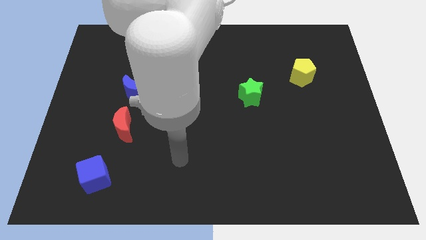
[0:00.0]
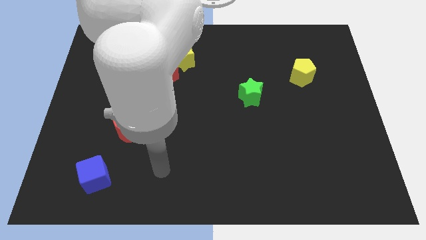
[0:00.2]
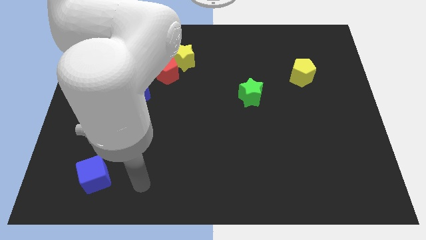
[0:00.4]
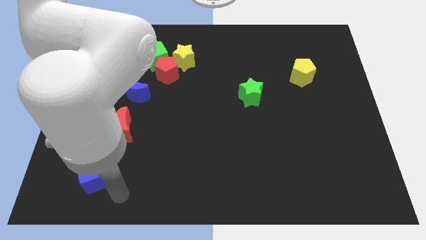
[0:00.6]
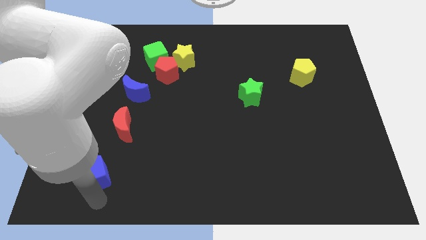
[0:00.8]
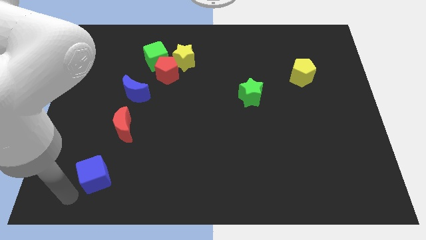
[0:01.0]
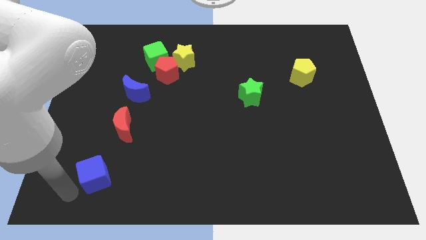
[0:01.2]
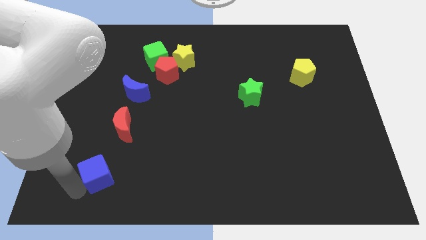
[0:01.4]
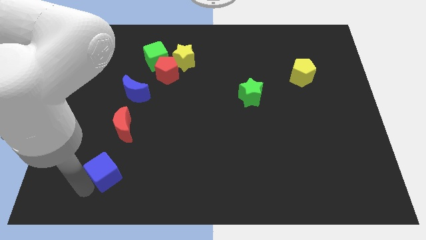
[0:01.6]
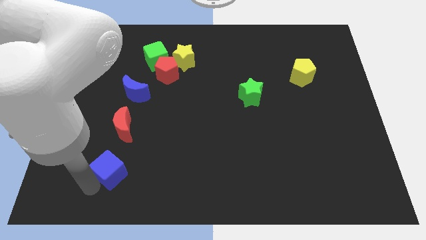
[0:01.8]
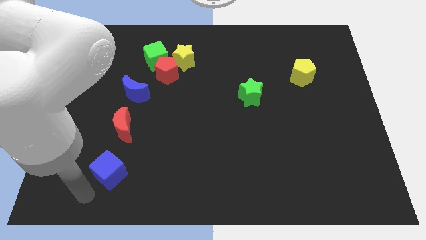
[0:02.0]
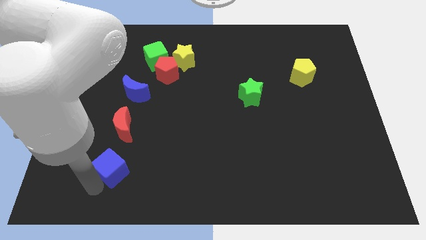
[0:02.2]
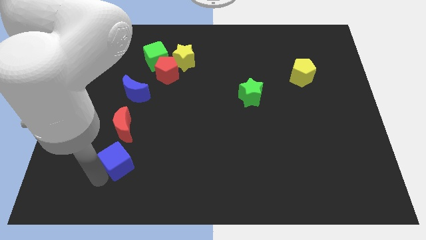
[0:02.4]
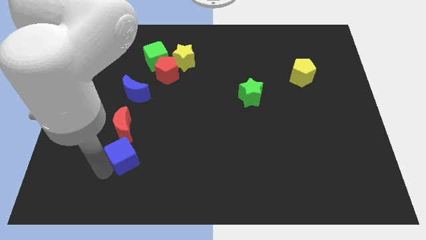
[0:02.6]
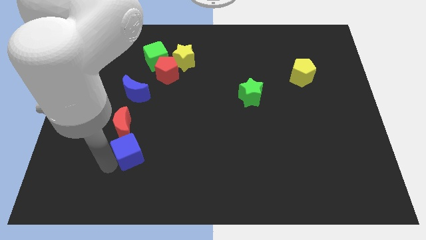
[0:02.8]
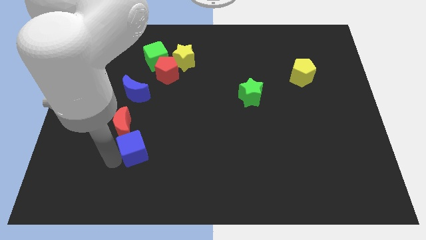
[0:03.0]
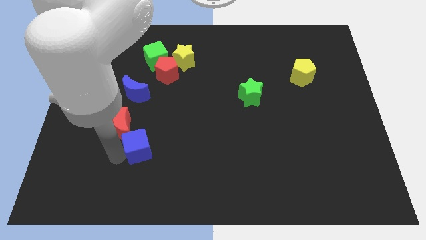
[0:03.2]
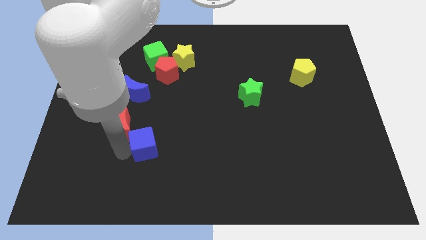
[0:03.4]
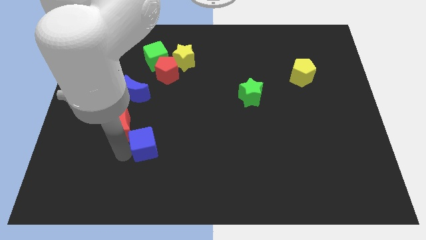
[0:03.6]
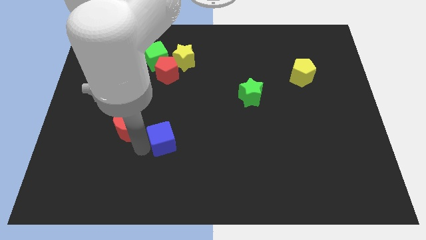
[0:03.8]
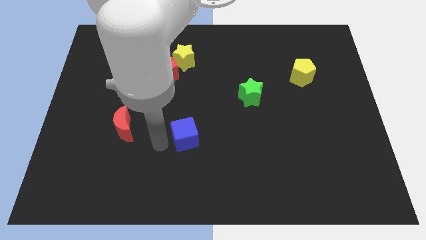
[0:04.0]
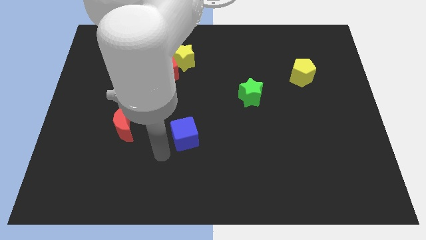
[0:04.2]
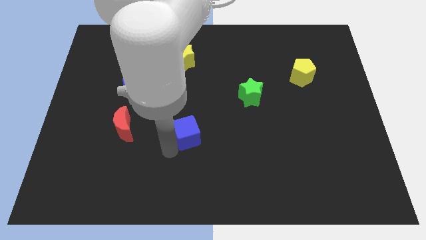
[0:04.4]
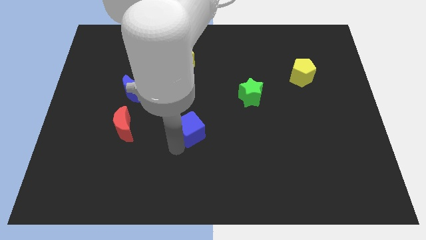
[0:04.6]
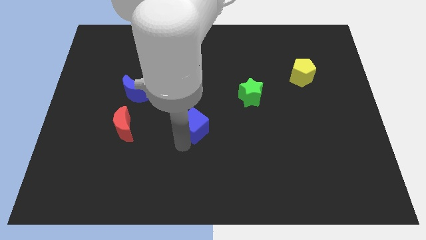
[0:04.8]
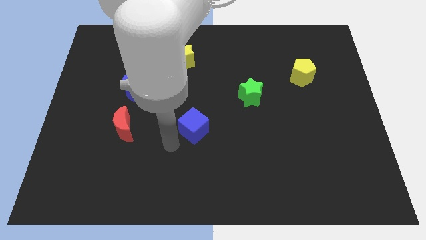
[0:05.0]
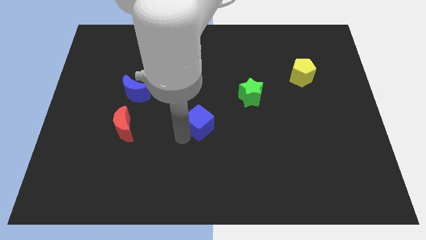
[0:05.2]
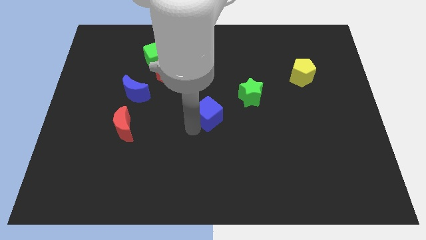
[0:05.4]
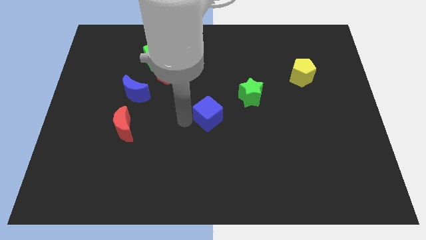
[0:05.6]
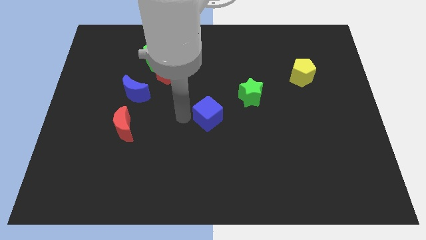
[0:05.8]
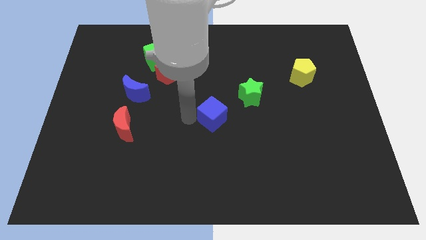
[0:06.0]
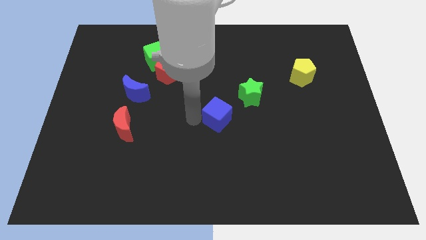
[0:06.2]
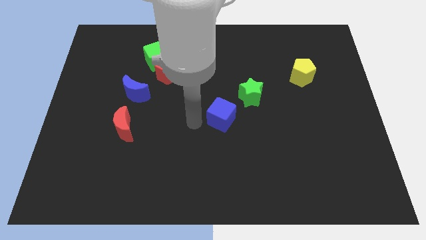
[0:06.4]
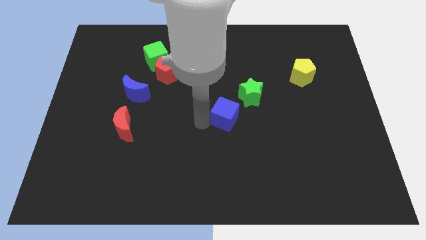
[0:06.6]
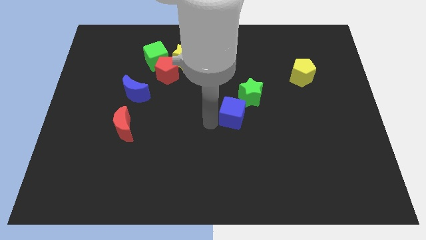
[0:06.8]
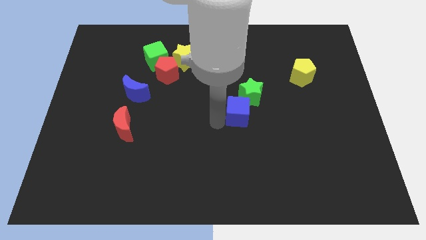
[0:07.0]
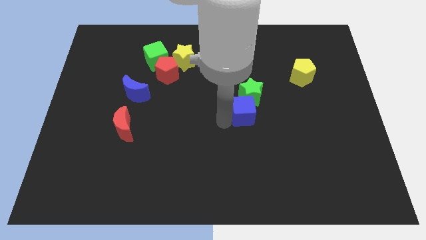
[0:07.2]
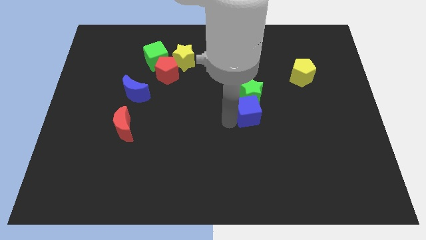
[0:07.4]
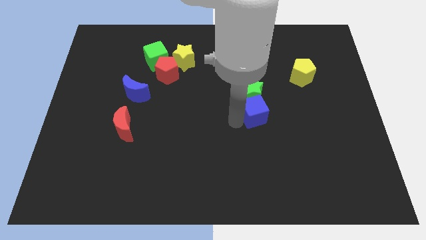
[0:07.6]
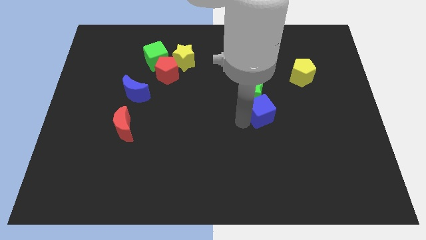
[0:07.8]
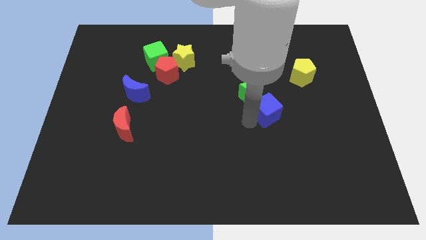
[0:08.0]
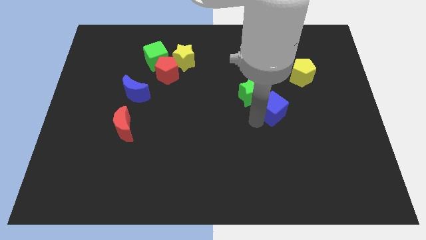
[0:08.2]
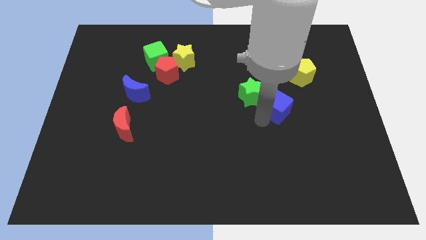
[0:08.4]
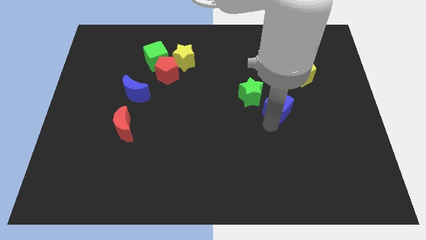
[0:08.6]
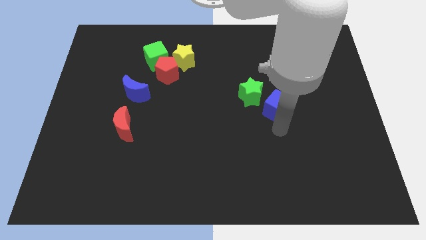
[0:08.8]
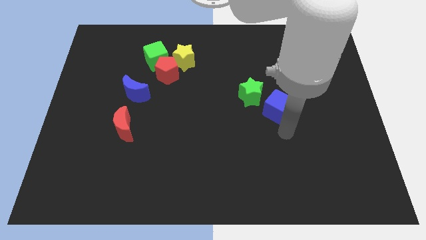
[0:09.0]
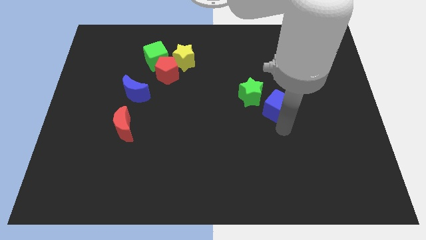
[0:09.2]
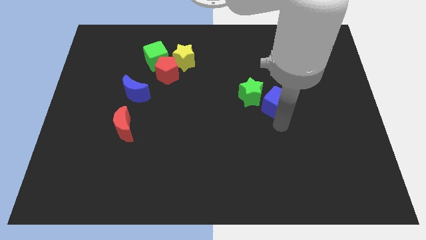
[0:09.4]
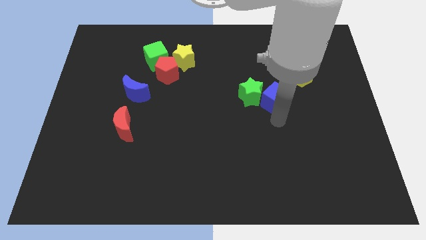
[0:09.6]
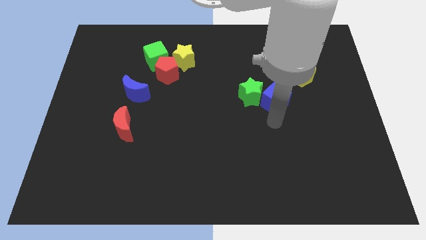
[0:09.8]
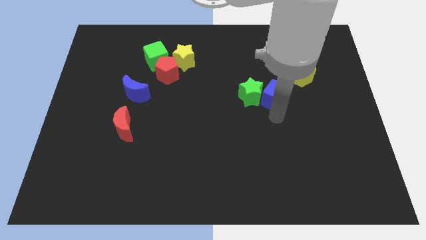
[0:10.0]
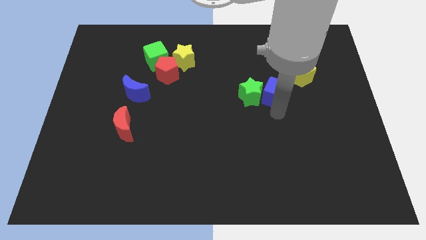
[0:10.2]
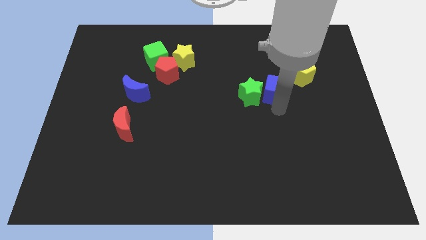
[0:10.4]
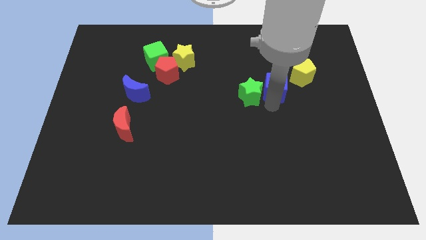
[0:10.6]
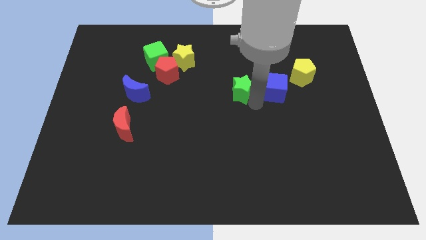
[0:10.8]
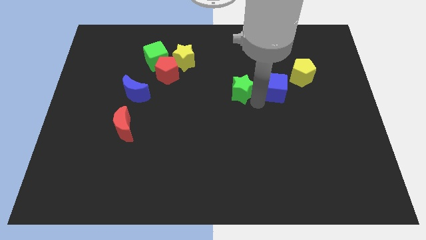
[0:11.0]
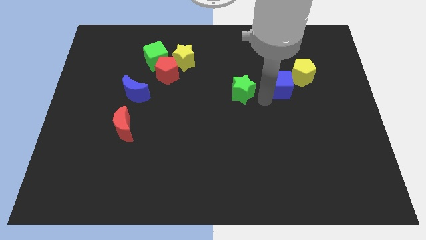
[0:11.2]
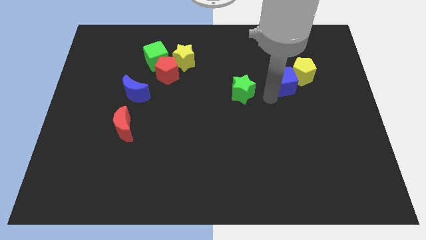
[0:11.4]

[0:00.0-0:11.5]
put the blue cube close to the yellow pentagon

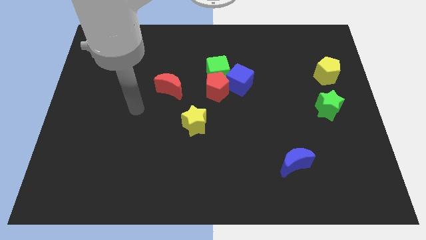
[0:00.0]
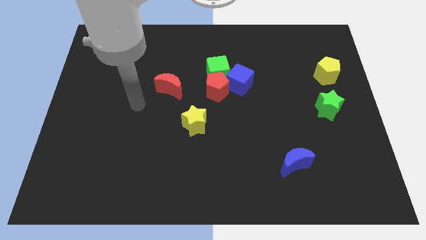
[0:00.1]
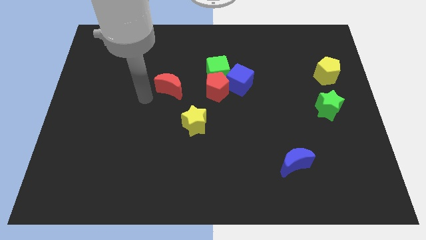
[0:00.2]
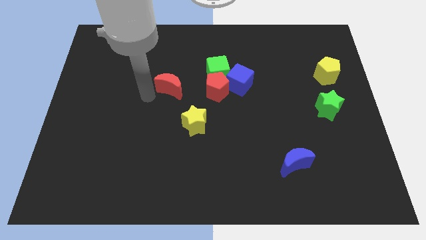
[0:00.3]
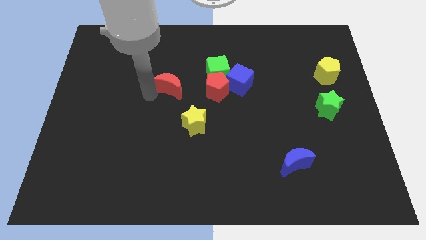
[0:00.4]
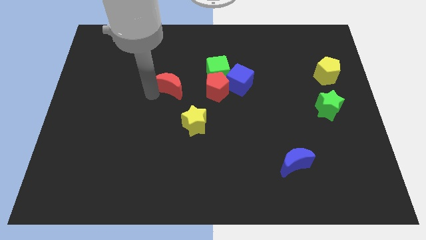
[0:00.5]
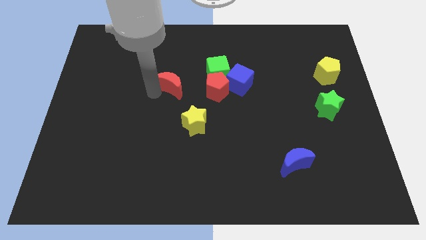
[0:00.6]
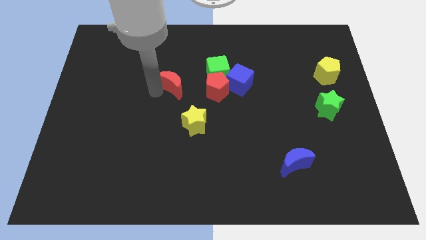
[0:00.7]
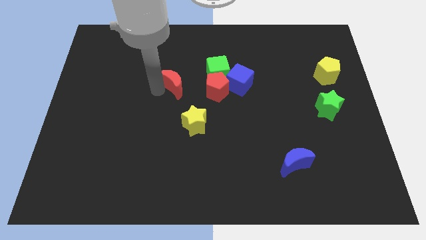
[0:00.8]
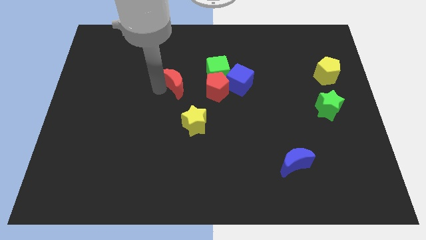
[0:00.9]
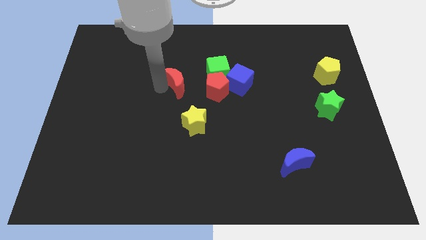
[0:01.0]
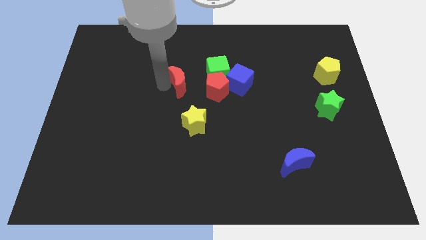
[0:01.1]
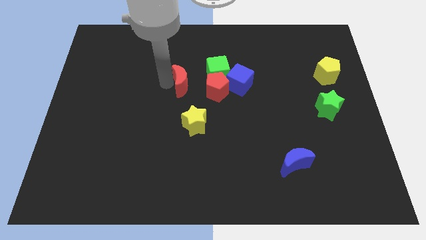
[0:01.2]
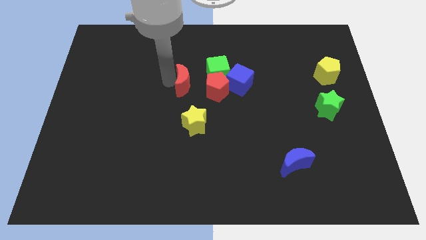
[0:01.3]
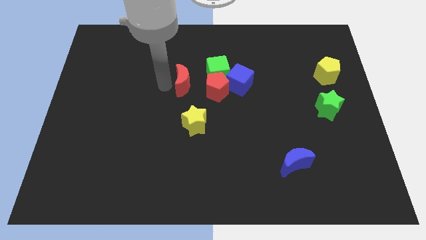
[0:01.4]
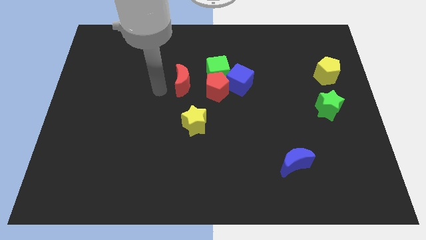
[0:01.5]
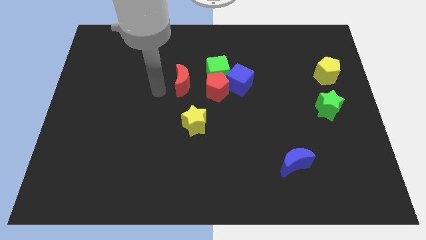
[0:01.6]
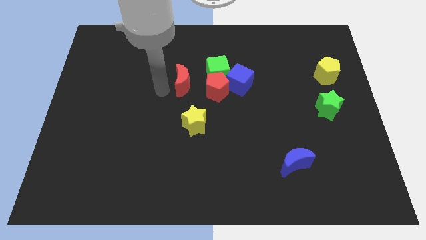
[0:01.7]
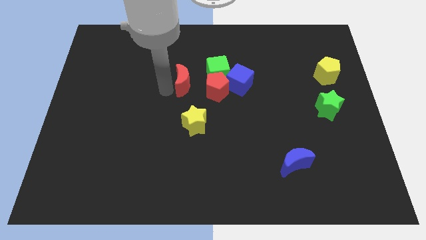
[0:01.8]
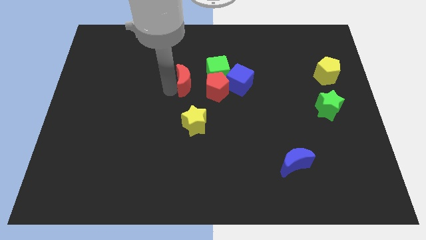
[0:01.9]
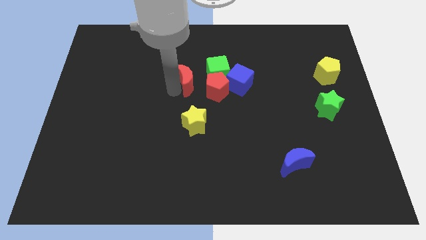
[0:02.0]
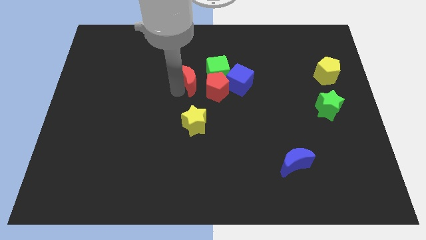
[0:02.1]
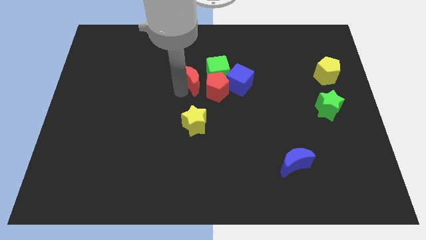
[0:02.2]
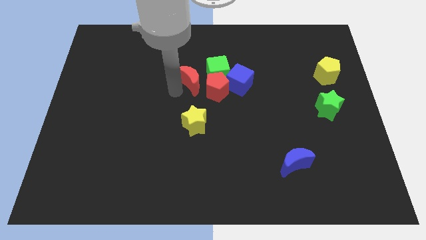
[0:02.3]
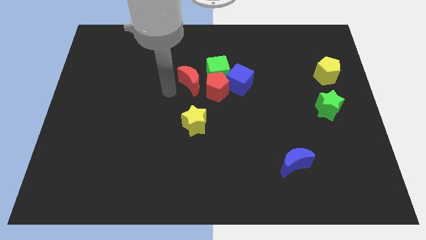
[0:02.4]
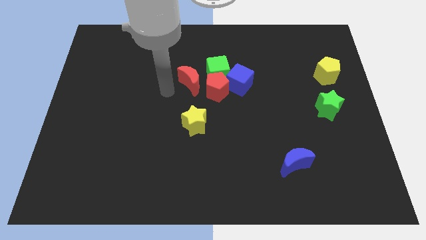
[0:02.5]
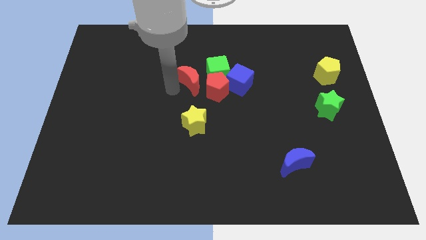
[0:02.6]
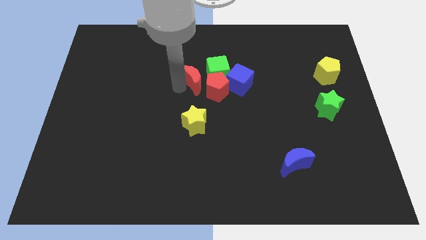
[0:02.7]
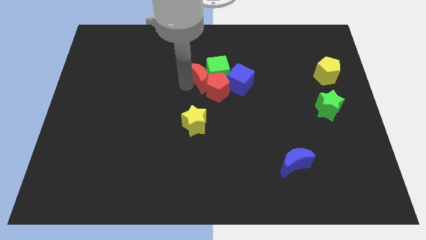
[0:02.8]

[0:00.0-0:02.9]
move the red moon towards the green cube
